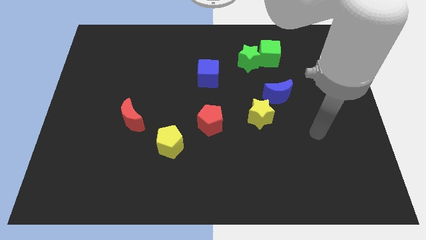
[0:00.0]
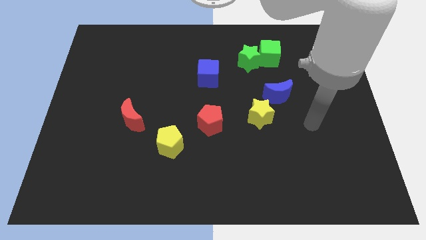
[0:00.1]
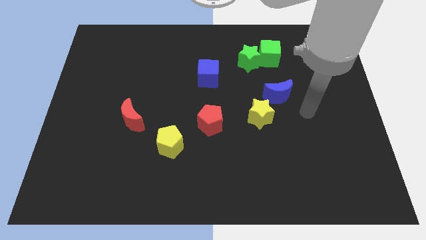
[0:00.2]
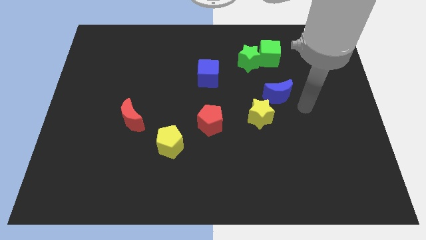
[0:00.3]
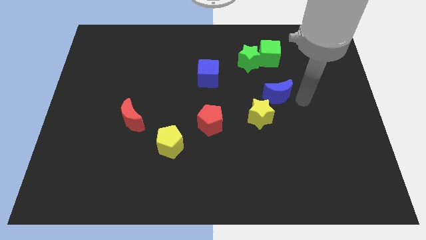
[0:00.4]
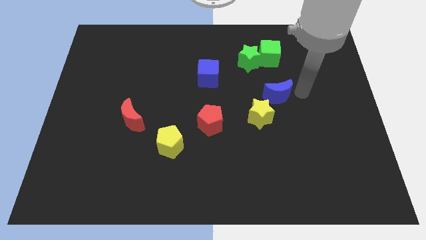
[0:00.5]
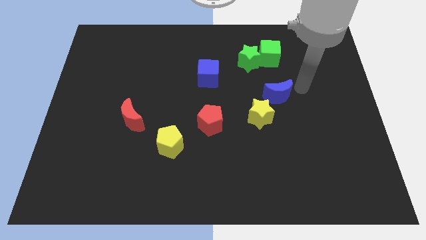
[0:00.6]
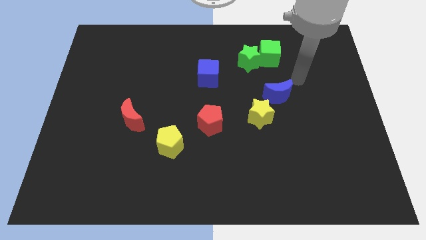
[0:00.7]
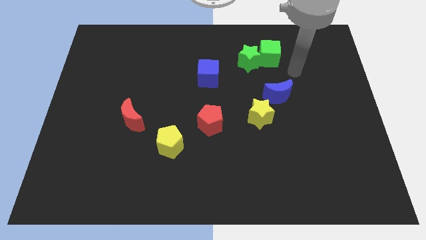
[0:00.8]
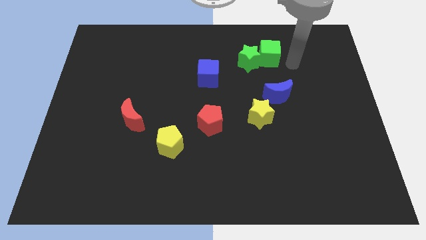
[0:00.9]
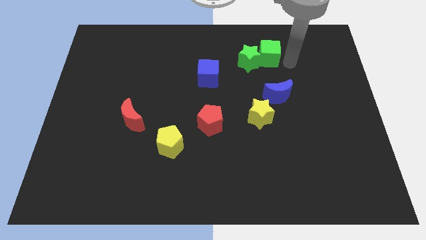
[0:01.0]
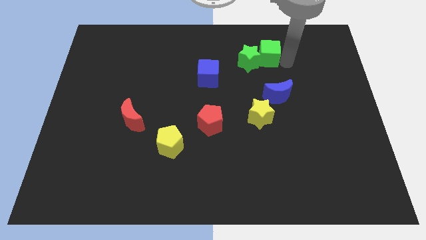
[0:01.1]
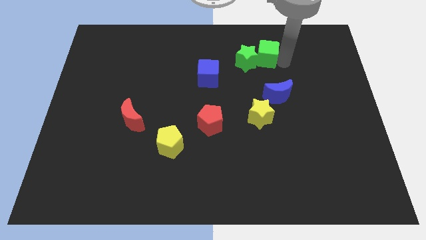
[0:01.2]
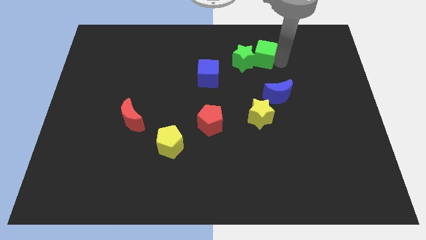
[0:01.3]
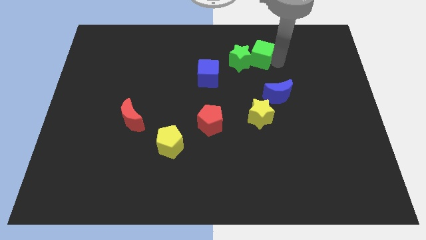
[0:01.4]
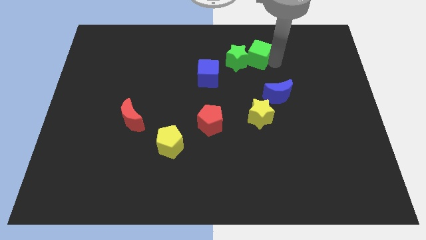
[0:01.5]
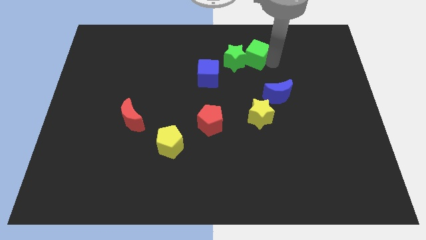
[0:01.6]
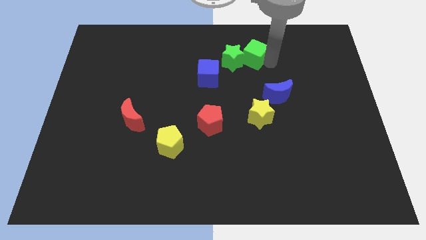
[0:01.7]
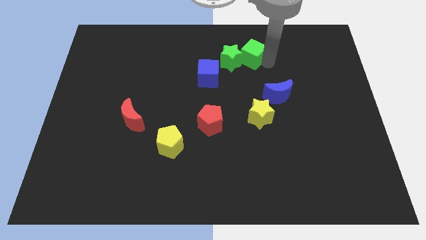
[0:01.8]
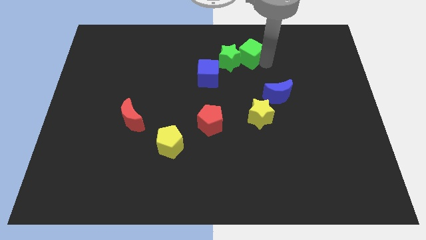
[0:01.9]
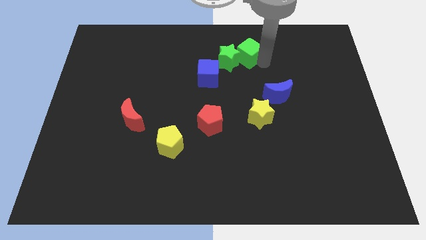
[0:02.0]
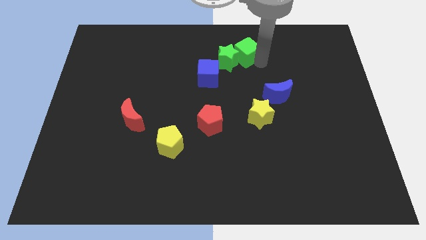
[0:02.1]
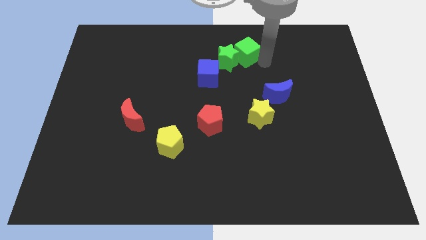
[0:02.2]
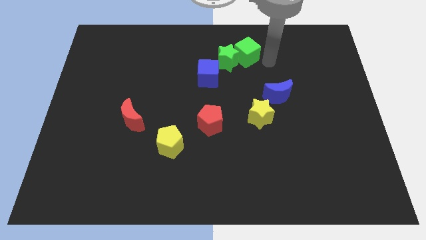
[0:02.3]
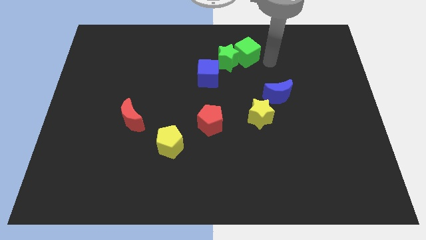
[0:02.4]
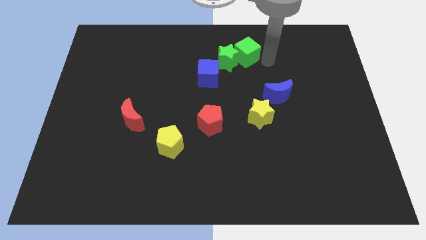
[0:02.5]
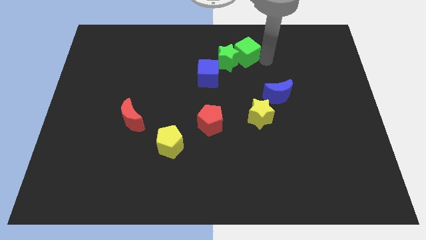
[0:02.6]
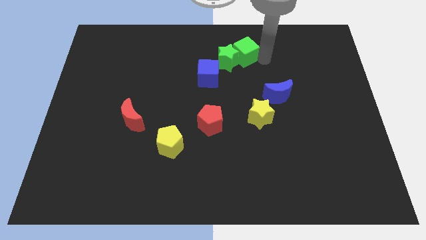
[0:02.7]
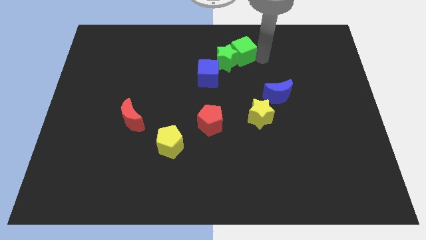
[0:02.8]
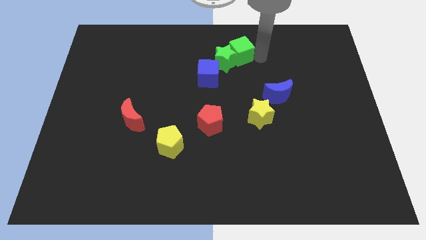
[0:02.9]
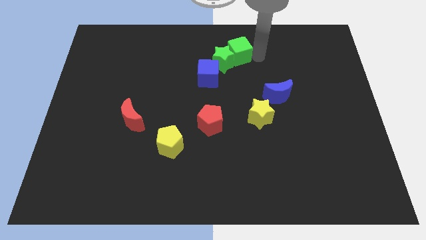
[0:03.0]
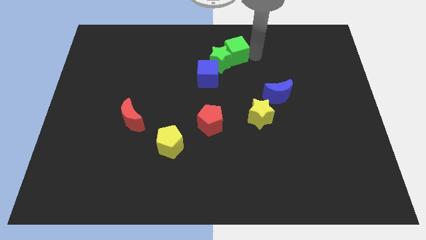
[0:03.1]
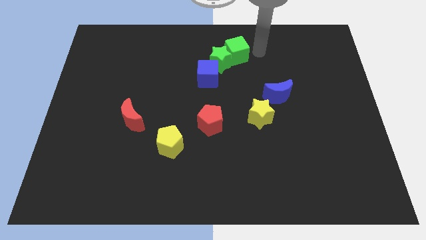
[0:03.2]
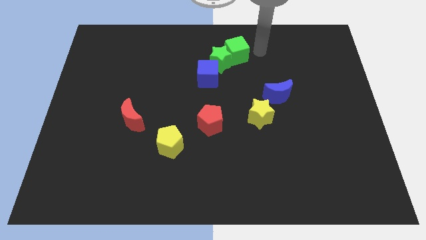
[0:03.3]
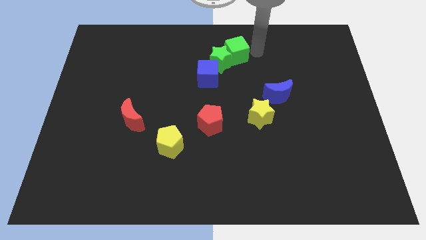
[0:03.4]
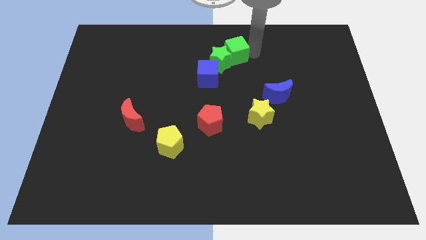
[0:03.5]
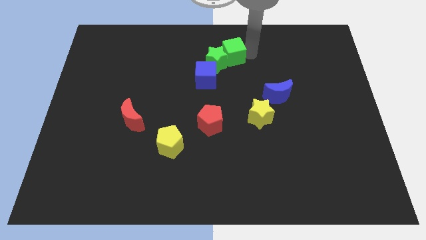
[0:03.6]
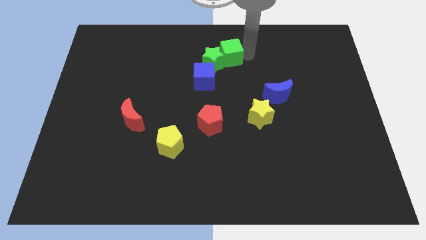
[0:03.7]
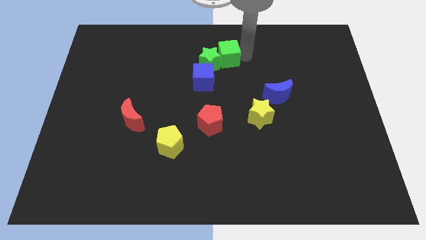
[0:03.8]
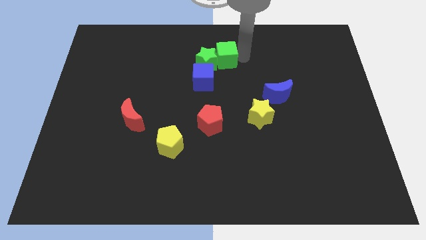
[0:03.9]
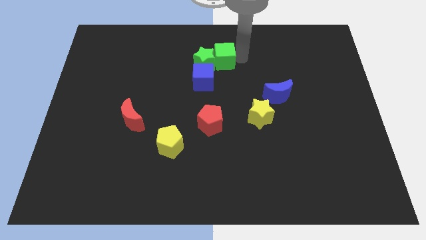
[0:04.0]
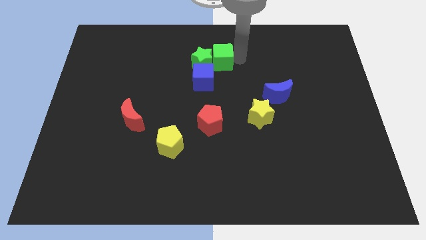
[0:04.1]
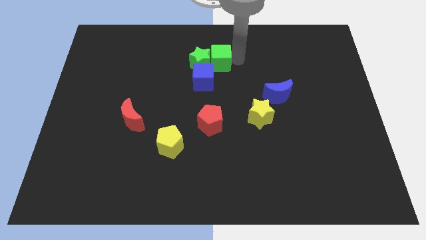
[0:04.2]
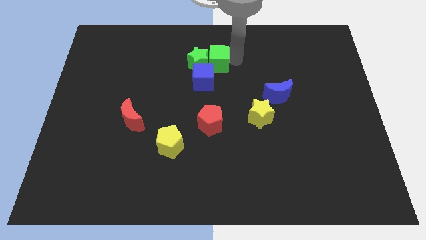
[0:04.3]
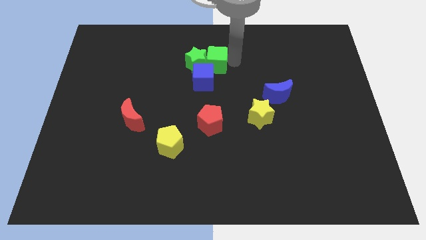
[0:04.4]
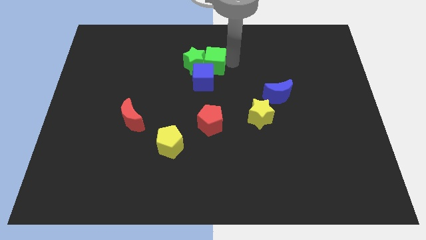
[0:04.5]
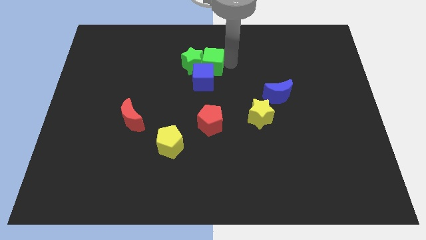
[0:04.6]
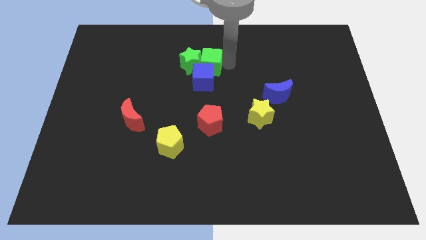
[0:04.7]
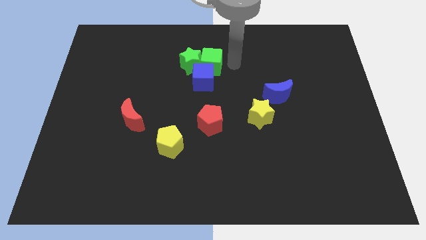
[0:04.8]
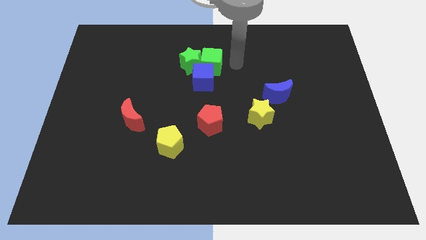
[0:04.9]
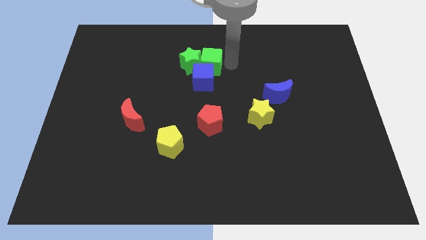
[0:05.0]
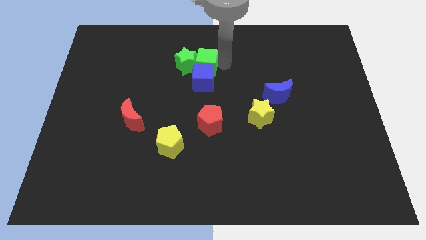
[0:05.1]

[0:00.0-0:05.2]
put the green cube to the top left side of the blue cube

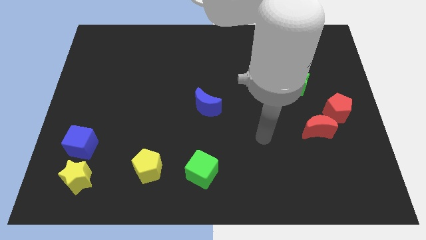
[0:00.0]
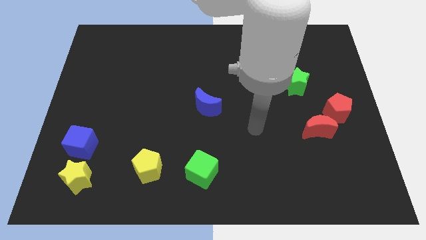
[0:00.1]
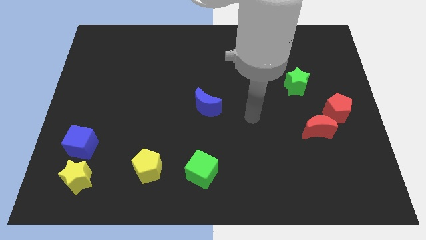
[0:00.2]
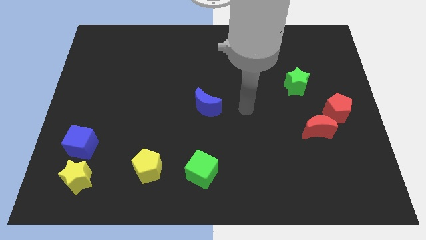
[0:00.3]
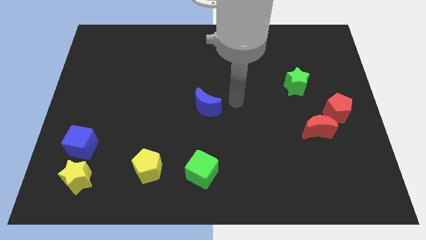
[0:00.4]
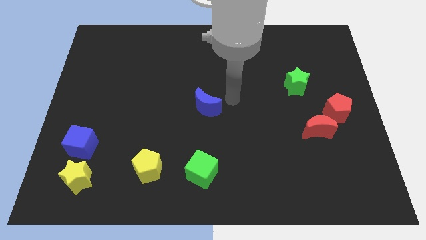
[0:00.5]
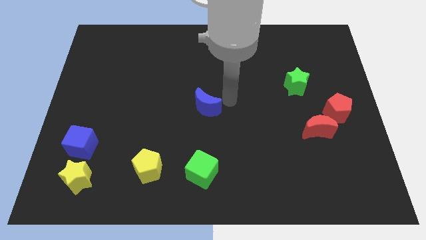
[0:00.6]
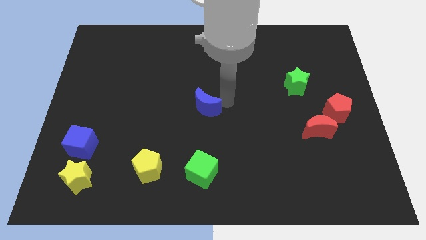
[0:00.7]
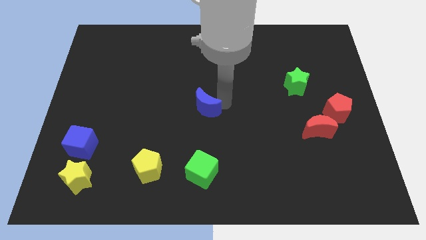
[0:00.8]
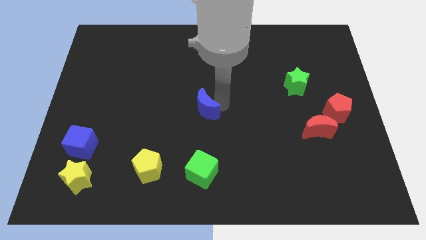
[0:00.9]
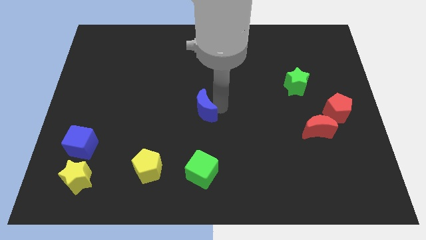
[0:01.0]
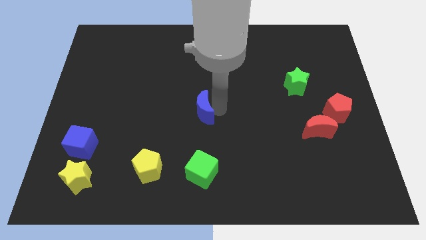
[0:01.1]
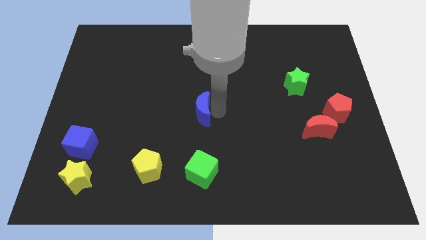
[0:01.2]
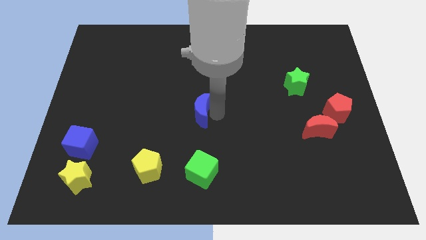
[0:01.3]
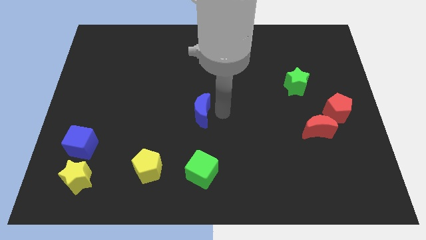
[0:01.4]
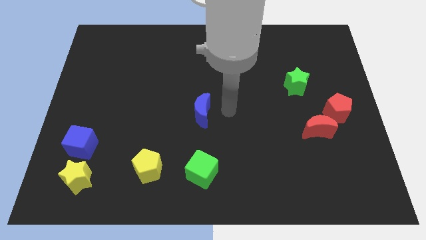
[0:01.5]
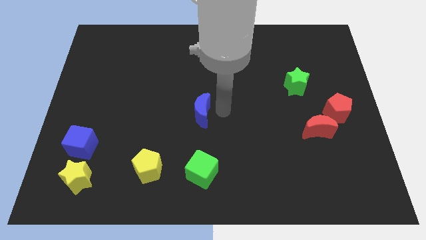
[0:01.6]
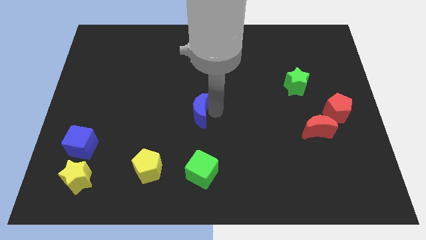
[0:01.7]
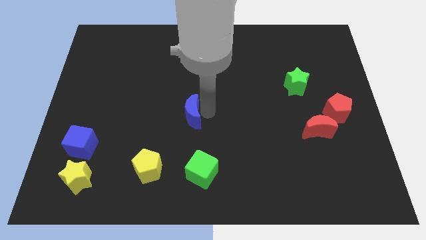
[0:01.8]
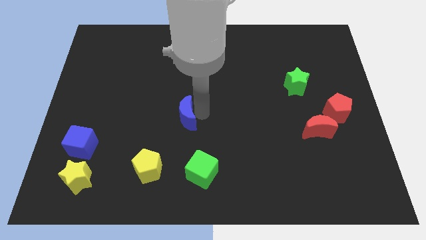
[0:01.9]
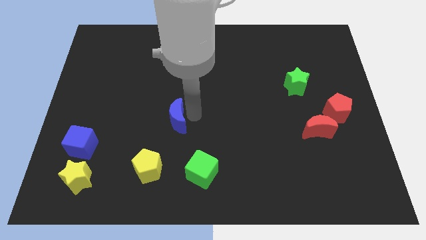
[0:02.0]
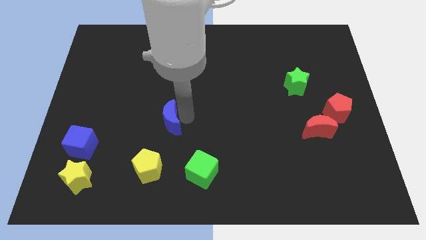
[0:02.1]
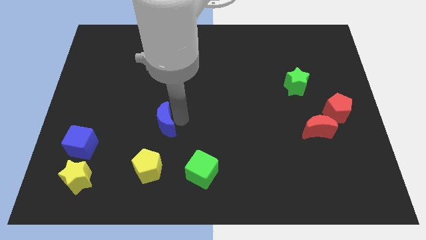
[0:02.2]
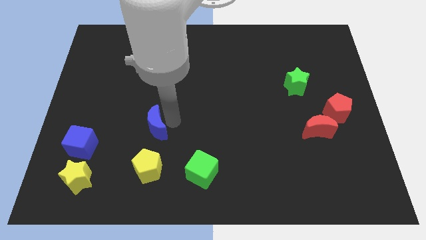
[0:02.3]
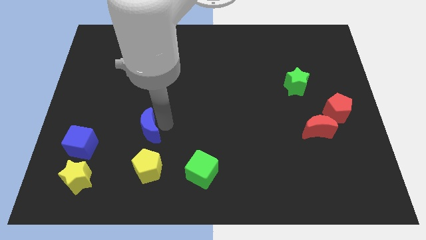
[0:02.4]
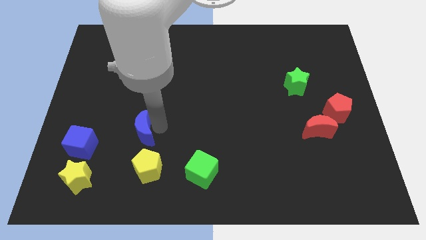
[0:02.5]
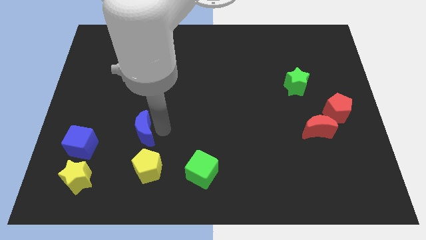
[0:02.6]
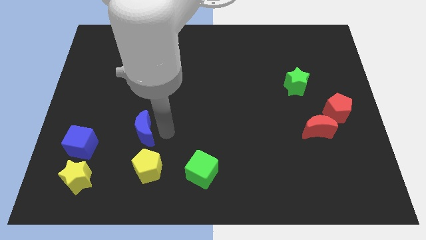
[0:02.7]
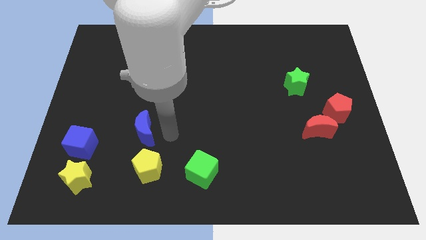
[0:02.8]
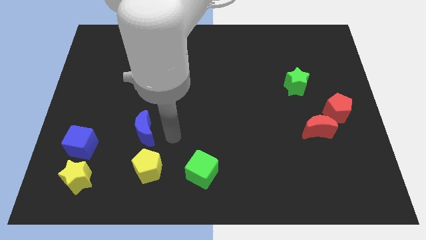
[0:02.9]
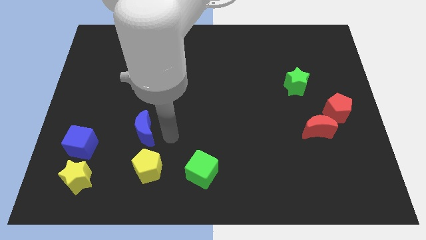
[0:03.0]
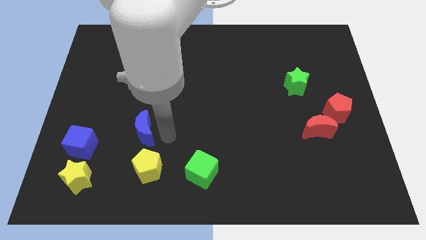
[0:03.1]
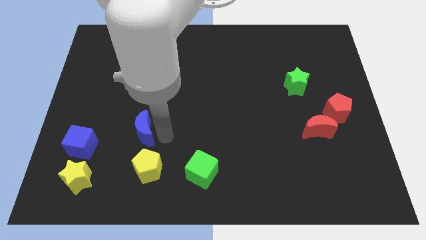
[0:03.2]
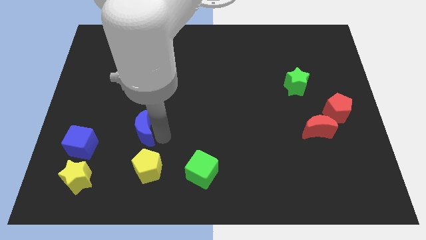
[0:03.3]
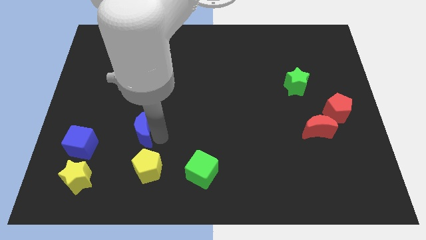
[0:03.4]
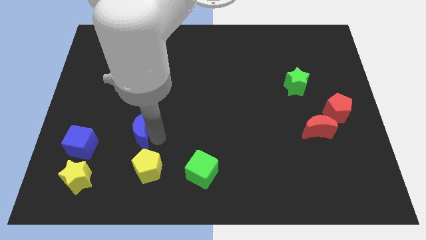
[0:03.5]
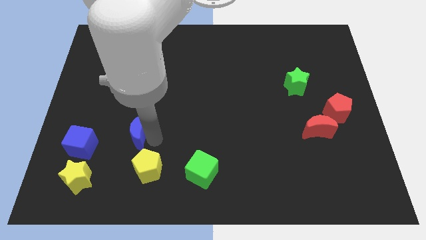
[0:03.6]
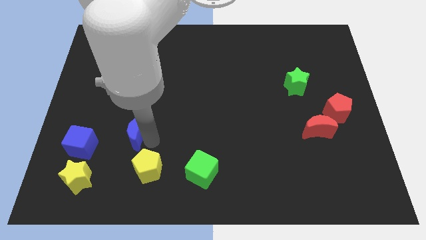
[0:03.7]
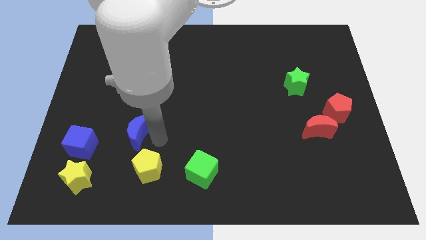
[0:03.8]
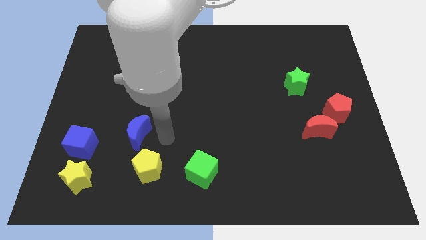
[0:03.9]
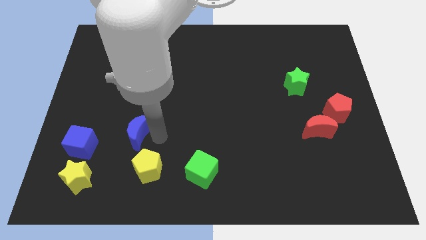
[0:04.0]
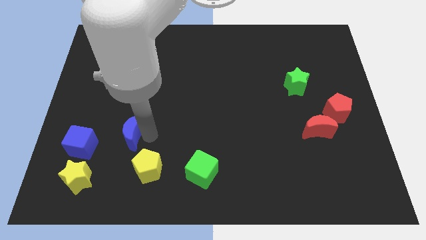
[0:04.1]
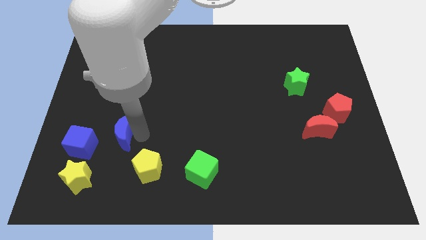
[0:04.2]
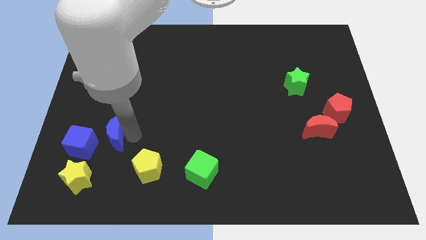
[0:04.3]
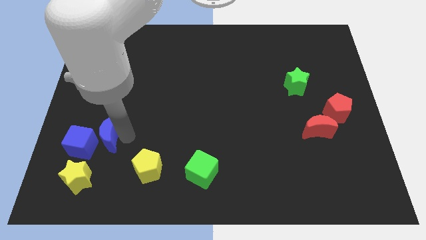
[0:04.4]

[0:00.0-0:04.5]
move the blue moon above the yellow star
